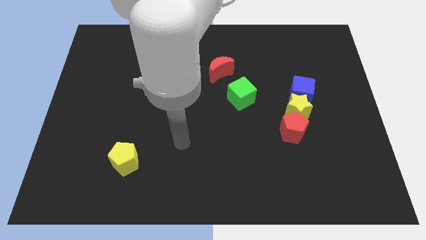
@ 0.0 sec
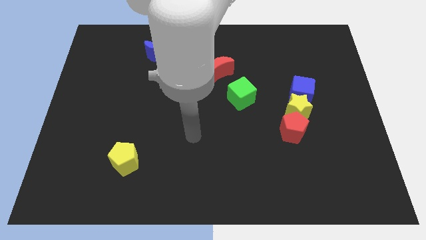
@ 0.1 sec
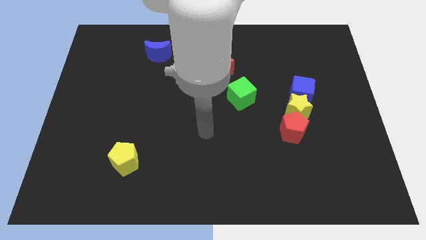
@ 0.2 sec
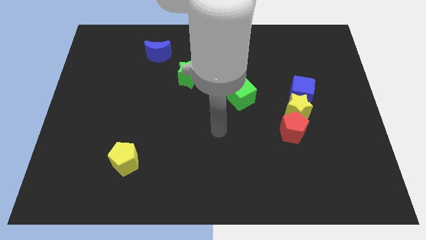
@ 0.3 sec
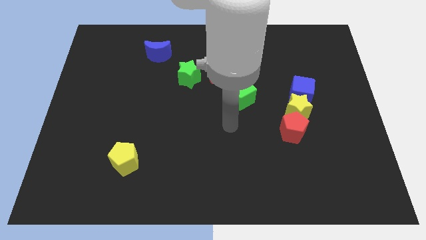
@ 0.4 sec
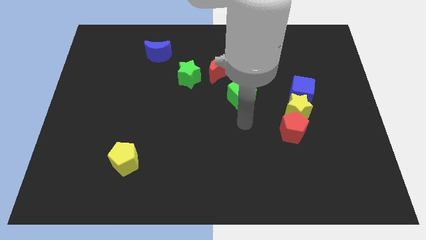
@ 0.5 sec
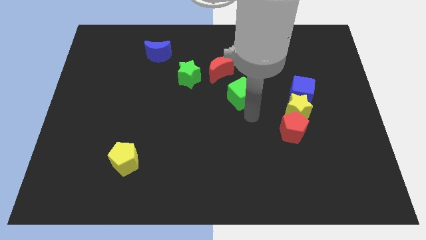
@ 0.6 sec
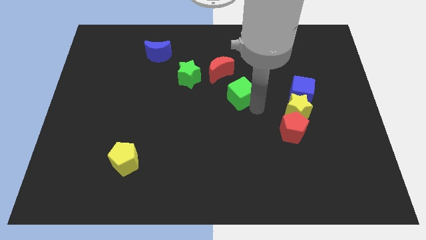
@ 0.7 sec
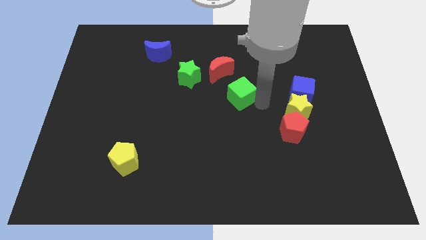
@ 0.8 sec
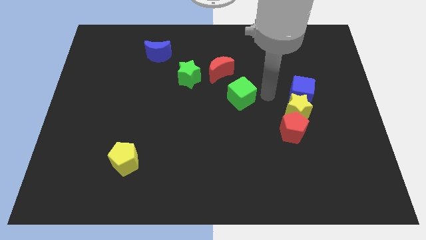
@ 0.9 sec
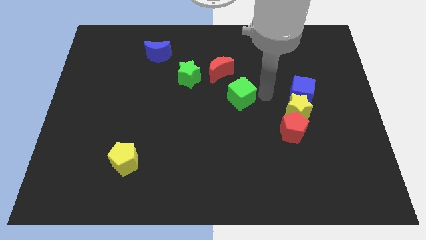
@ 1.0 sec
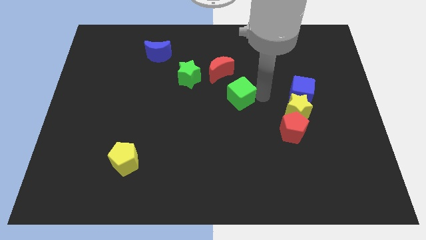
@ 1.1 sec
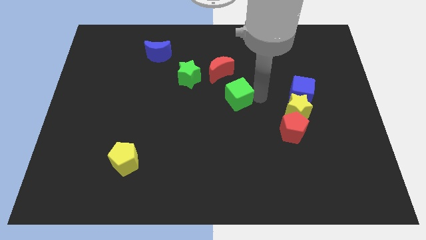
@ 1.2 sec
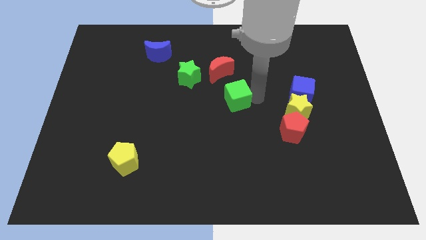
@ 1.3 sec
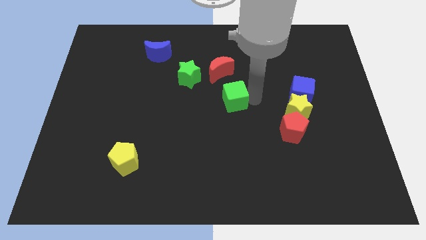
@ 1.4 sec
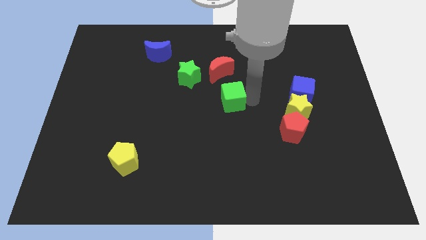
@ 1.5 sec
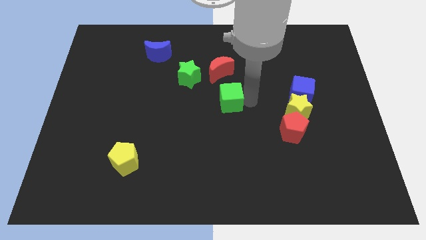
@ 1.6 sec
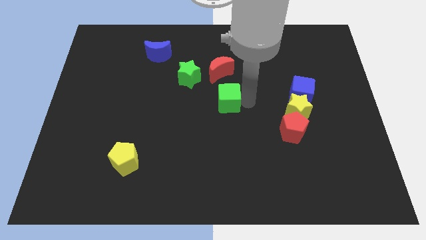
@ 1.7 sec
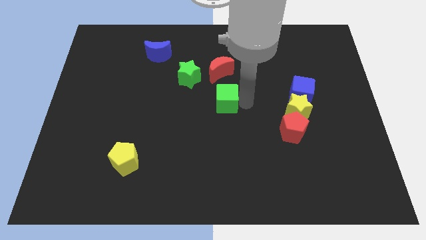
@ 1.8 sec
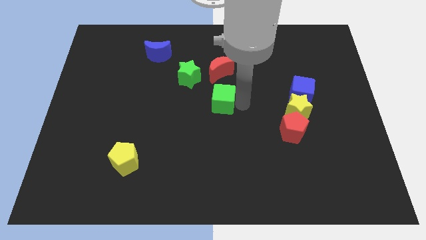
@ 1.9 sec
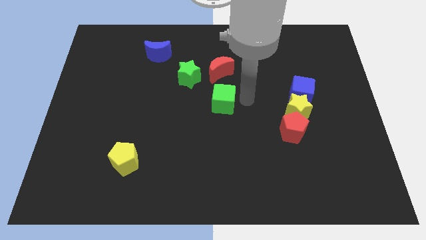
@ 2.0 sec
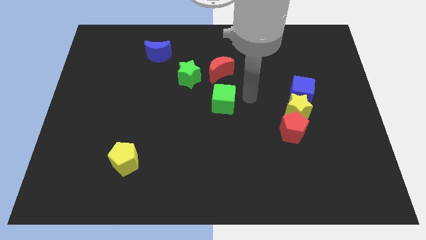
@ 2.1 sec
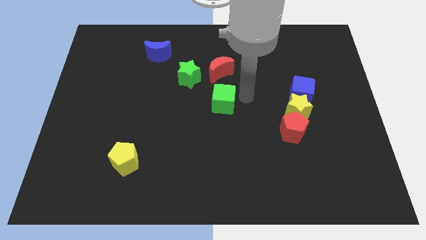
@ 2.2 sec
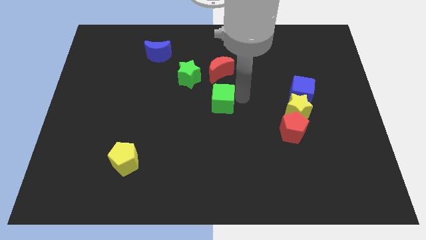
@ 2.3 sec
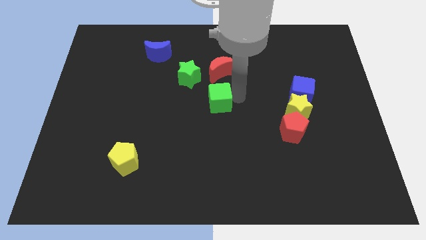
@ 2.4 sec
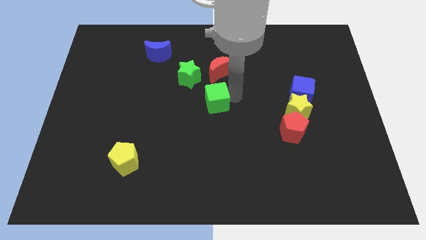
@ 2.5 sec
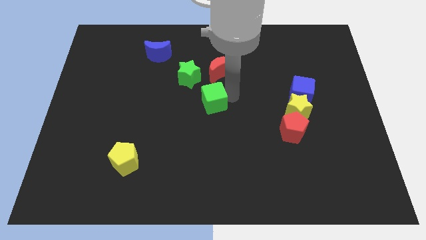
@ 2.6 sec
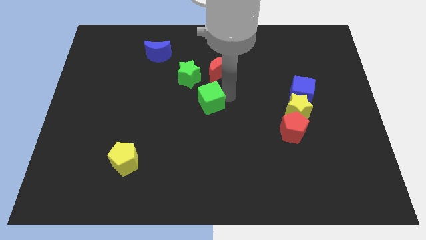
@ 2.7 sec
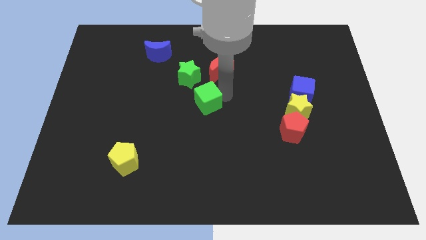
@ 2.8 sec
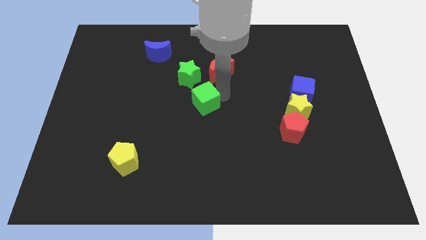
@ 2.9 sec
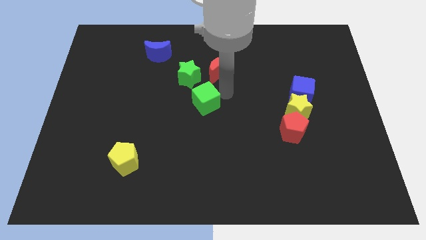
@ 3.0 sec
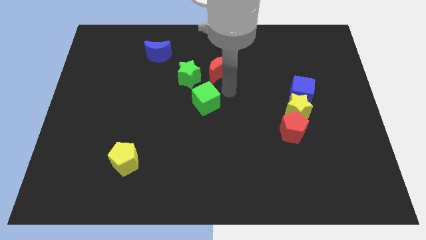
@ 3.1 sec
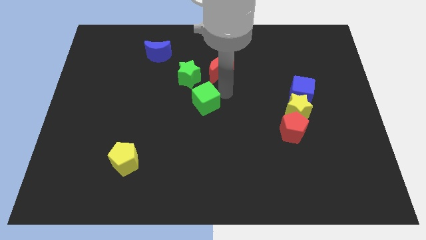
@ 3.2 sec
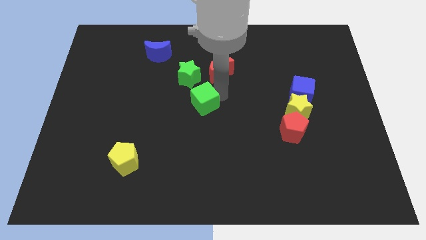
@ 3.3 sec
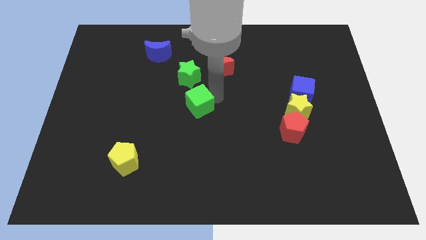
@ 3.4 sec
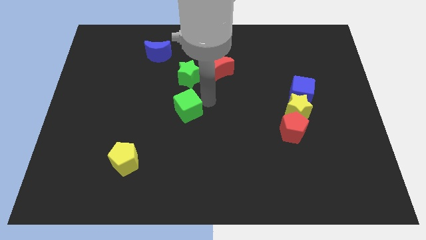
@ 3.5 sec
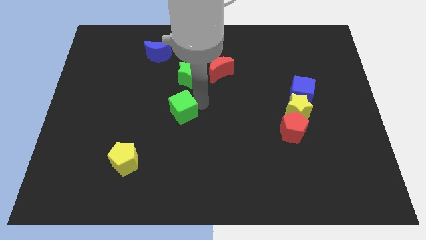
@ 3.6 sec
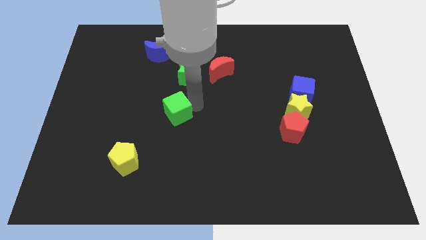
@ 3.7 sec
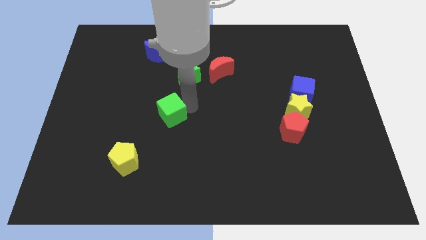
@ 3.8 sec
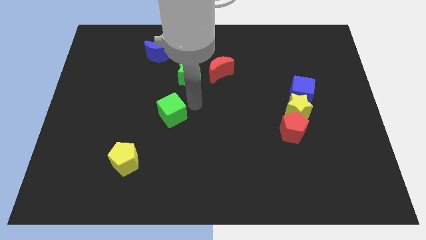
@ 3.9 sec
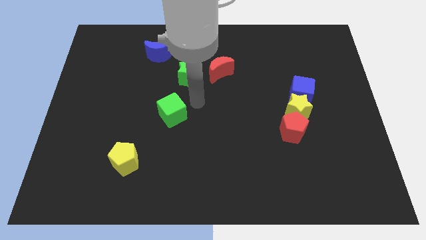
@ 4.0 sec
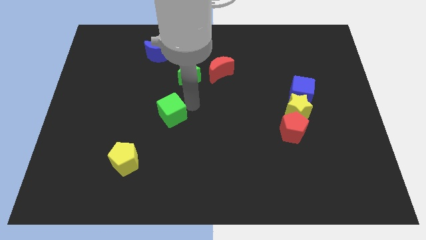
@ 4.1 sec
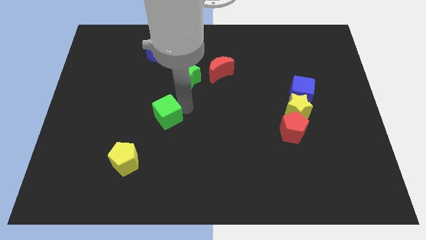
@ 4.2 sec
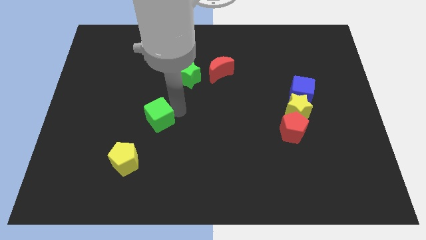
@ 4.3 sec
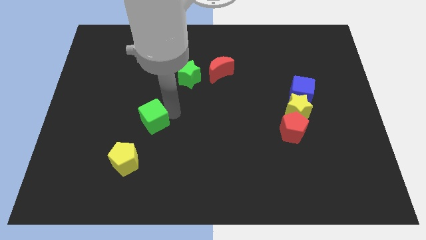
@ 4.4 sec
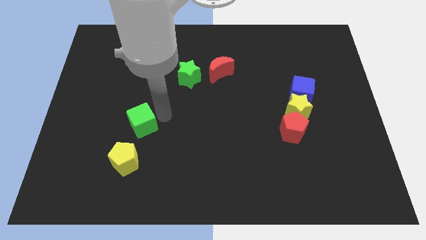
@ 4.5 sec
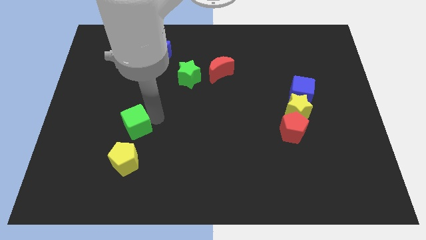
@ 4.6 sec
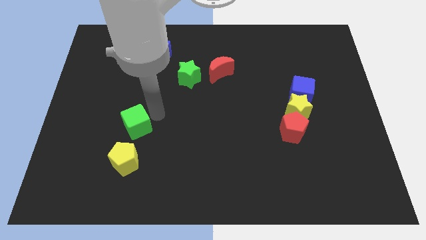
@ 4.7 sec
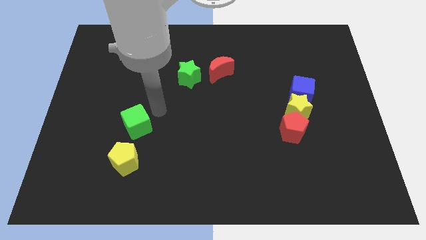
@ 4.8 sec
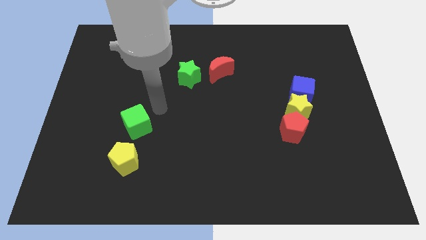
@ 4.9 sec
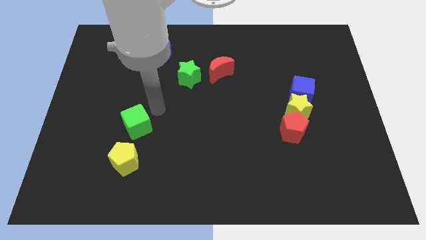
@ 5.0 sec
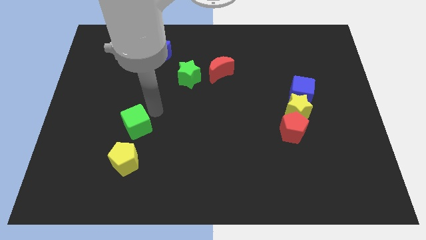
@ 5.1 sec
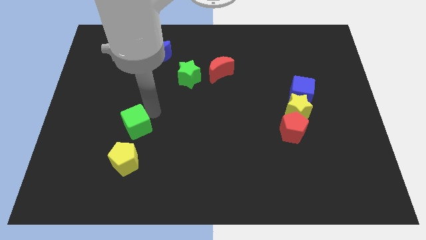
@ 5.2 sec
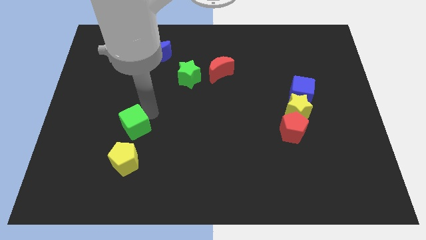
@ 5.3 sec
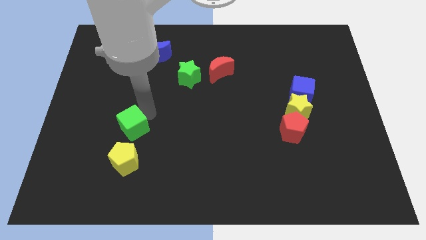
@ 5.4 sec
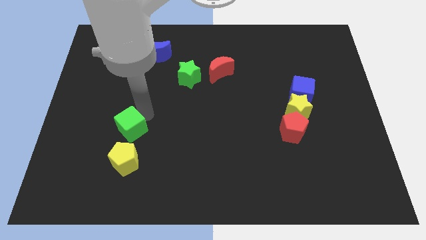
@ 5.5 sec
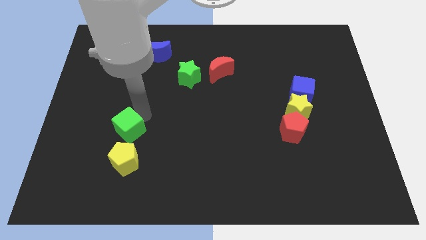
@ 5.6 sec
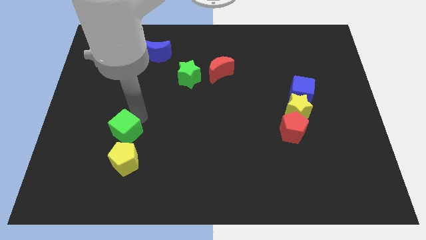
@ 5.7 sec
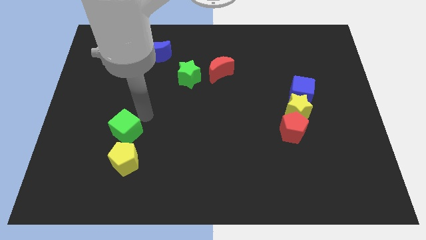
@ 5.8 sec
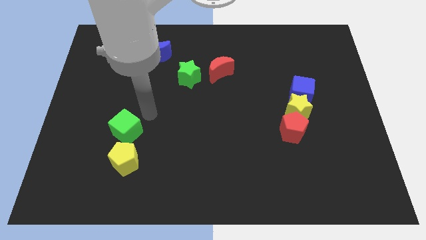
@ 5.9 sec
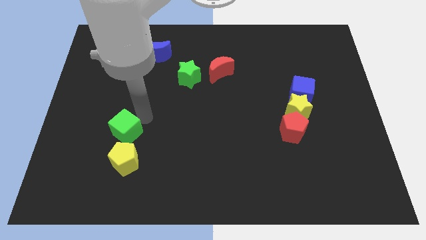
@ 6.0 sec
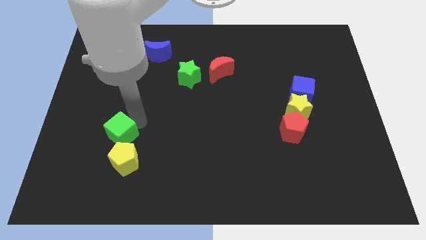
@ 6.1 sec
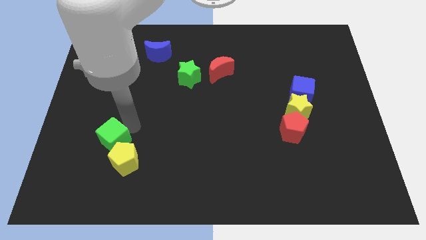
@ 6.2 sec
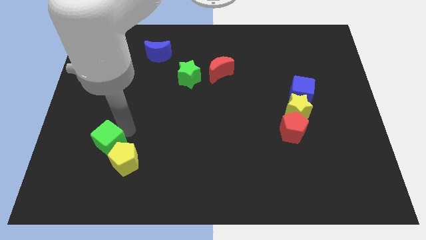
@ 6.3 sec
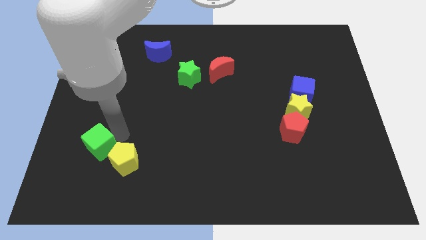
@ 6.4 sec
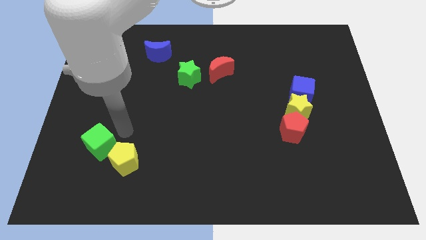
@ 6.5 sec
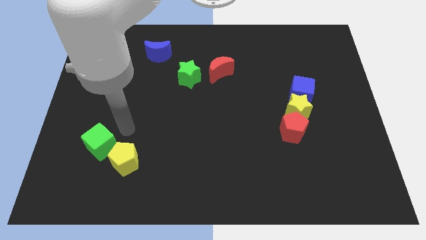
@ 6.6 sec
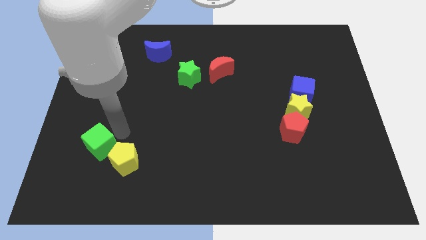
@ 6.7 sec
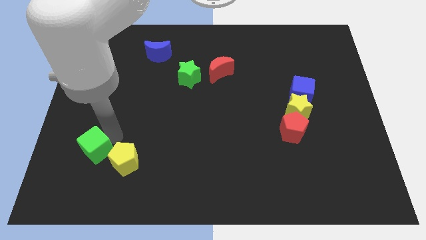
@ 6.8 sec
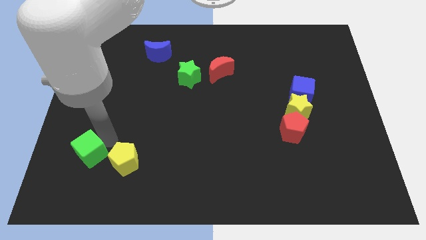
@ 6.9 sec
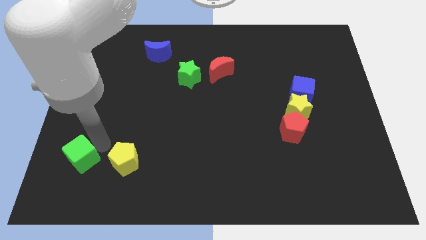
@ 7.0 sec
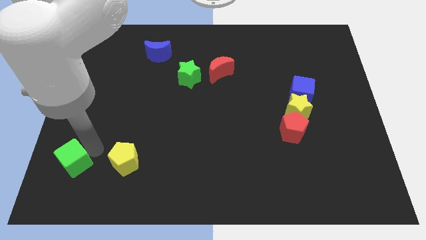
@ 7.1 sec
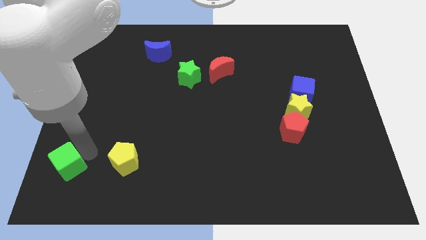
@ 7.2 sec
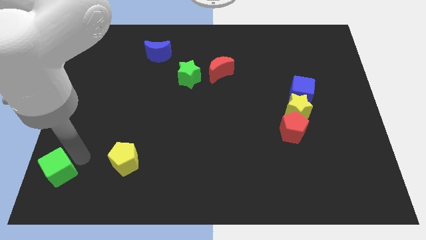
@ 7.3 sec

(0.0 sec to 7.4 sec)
slide the green cube to the bottom left of the board

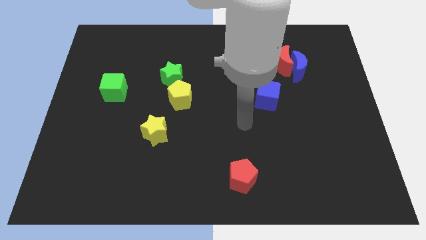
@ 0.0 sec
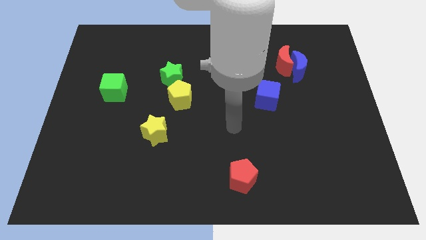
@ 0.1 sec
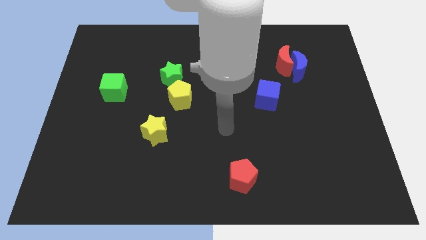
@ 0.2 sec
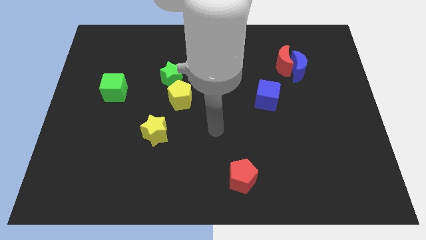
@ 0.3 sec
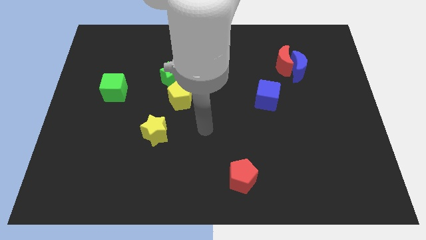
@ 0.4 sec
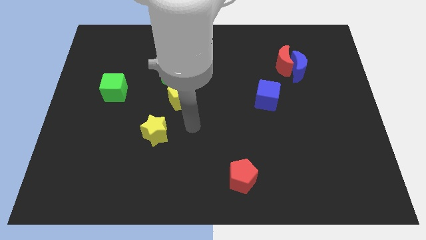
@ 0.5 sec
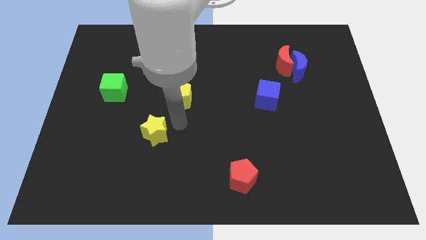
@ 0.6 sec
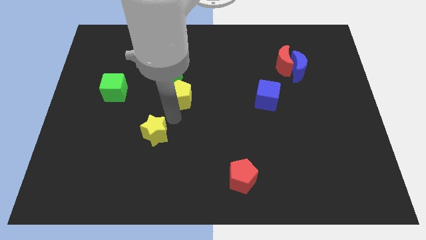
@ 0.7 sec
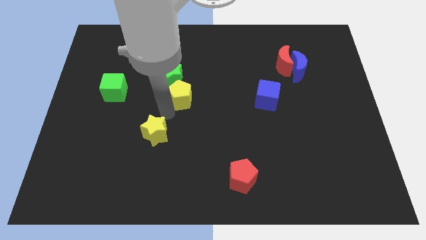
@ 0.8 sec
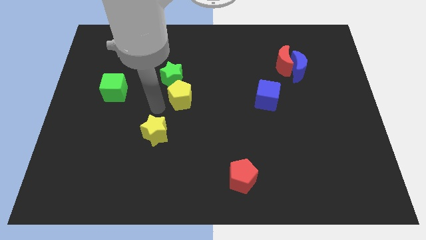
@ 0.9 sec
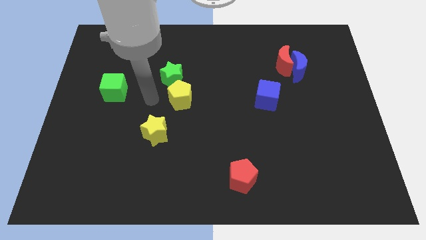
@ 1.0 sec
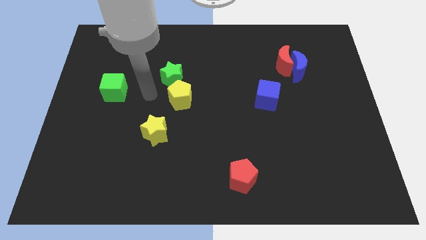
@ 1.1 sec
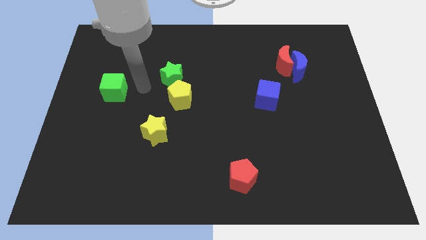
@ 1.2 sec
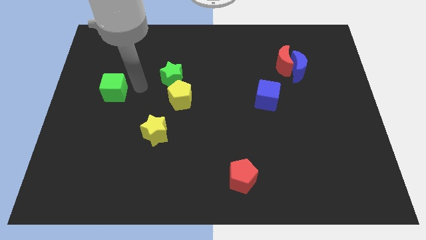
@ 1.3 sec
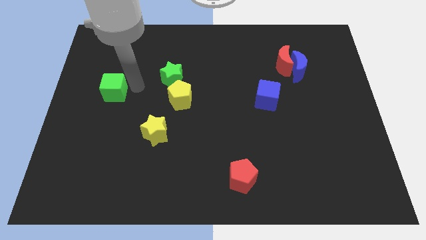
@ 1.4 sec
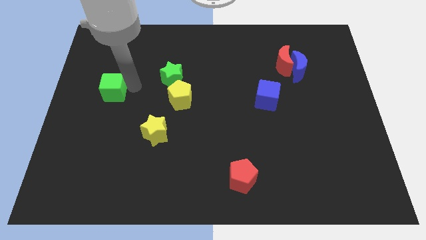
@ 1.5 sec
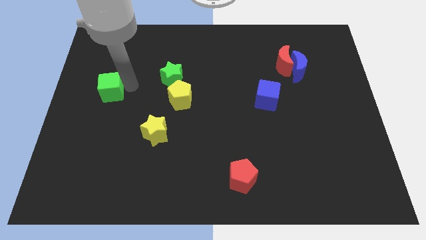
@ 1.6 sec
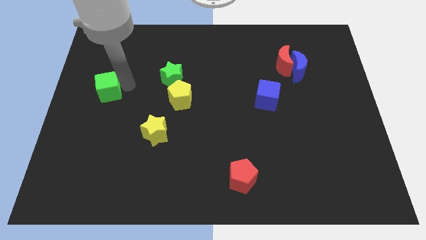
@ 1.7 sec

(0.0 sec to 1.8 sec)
put the green cube to the center left
